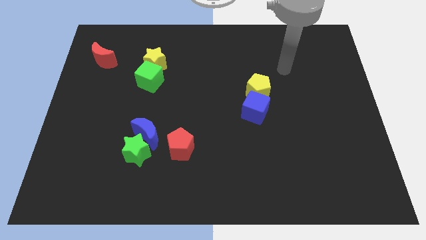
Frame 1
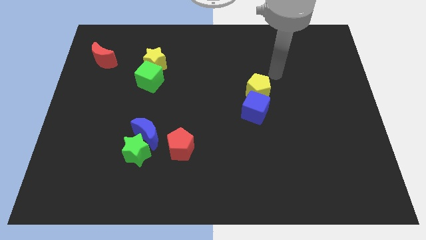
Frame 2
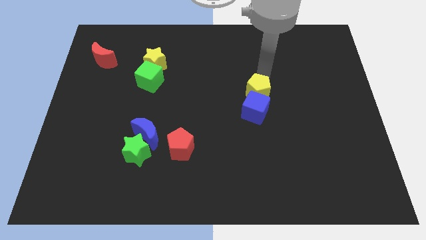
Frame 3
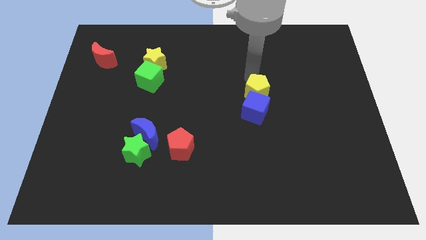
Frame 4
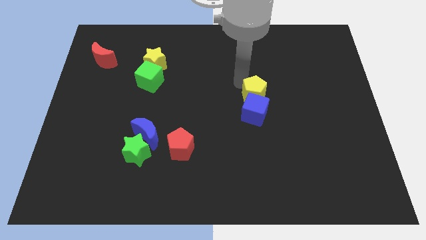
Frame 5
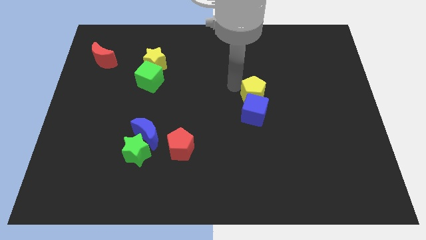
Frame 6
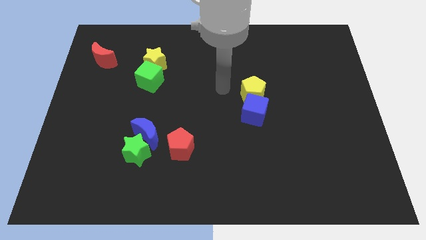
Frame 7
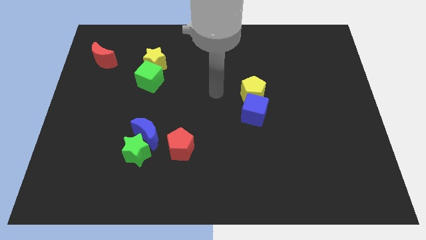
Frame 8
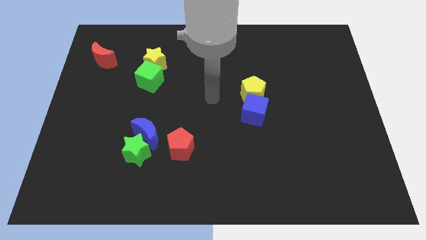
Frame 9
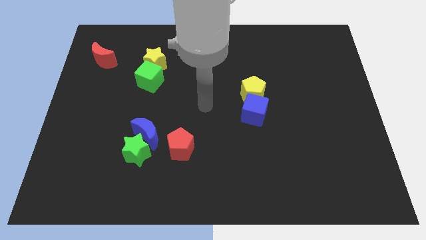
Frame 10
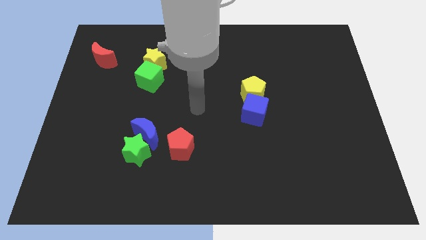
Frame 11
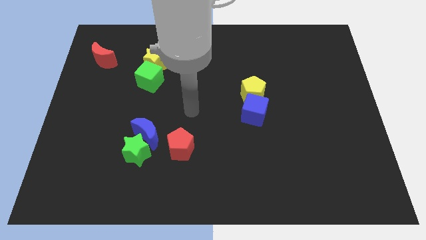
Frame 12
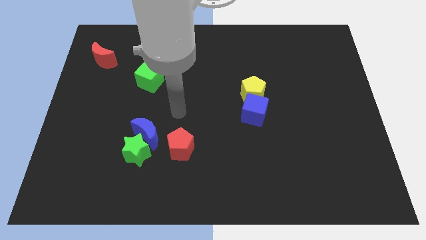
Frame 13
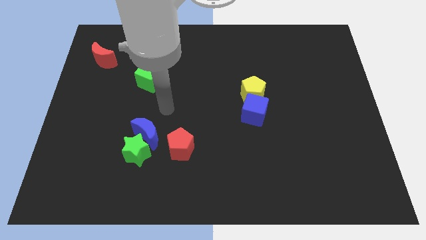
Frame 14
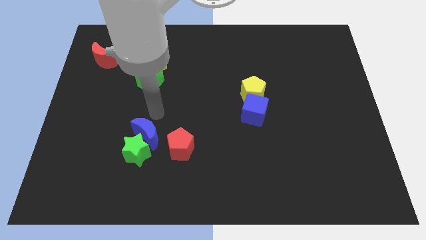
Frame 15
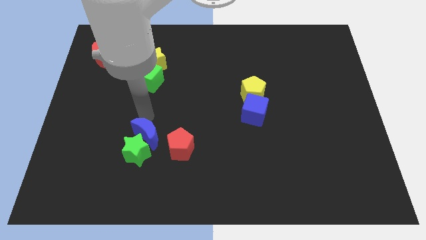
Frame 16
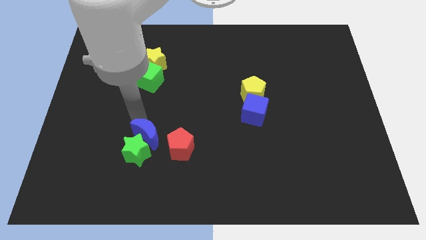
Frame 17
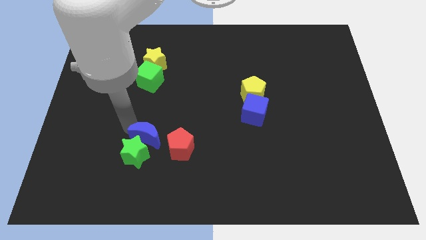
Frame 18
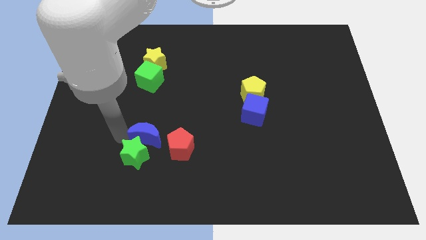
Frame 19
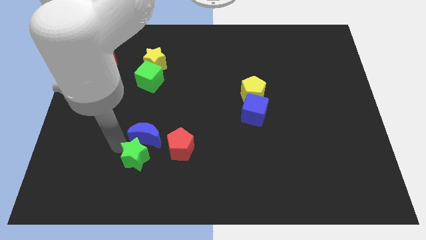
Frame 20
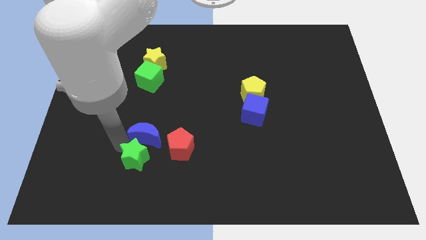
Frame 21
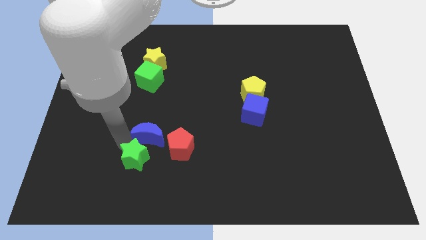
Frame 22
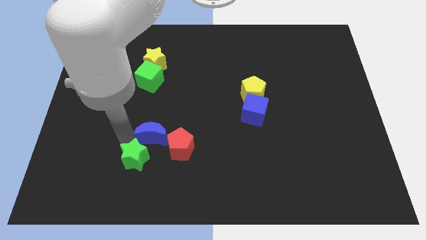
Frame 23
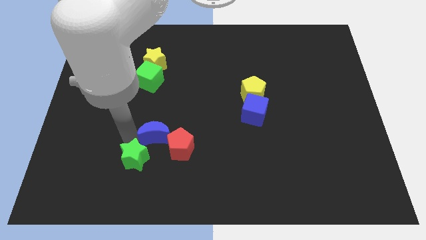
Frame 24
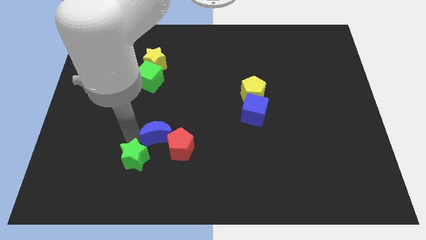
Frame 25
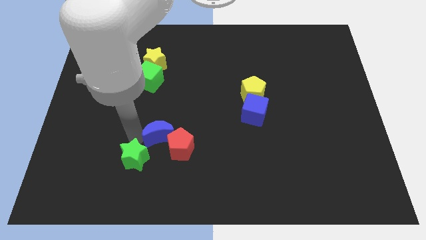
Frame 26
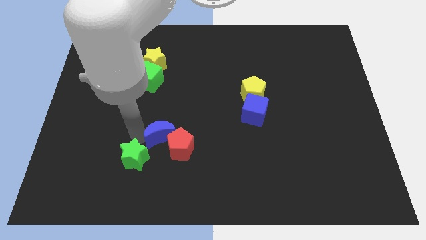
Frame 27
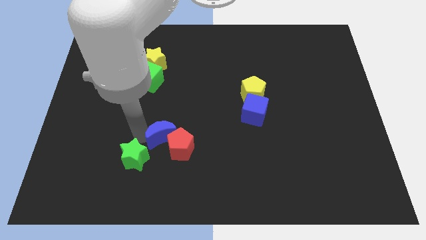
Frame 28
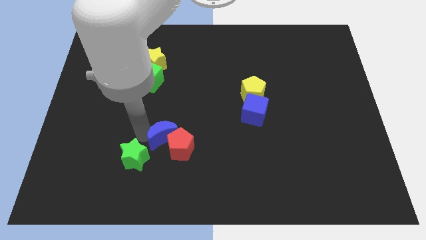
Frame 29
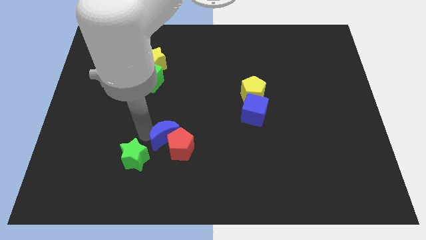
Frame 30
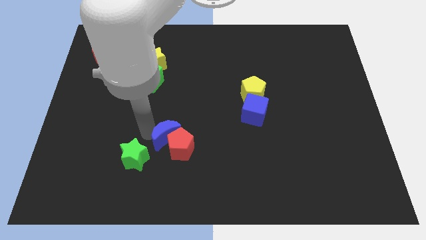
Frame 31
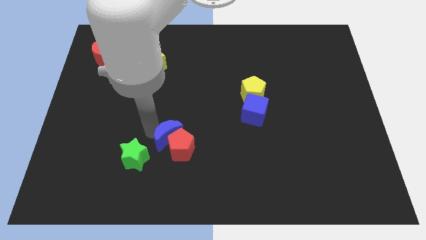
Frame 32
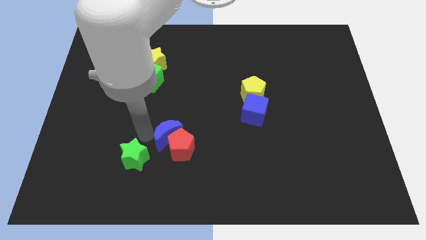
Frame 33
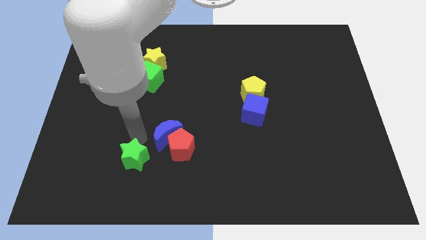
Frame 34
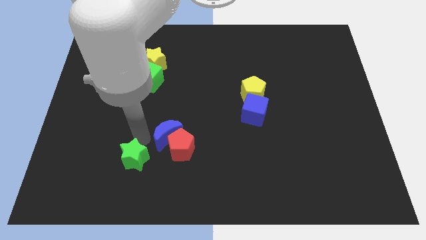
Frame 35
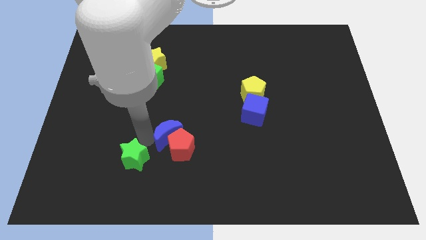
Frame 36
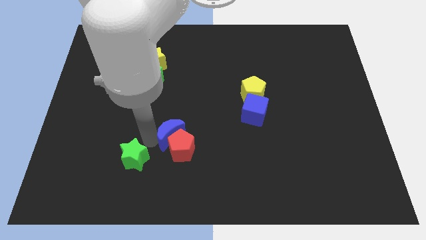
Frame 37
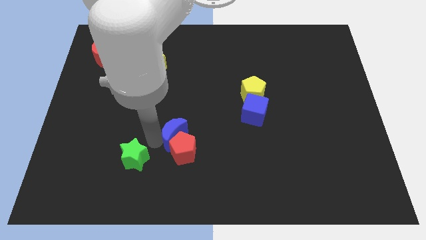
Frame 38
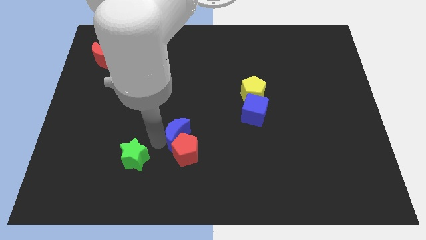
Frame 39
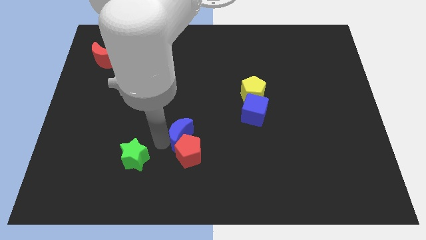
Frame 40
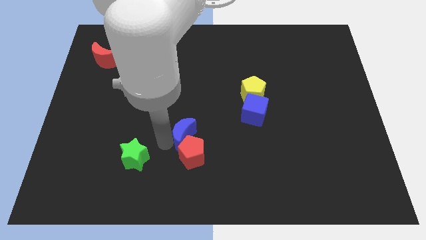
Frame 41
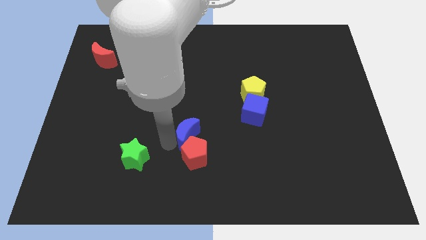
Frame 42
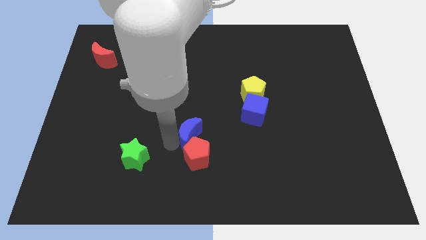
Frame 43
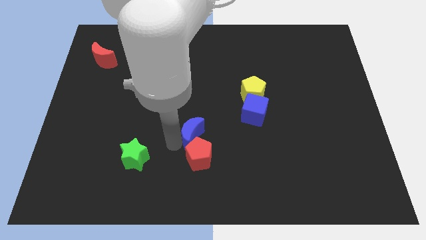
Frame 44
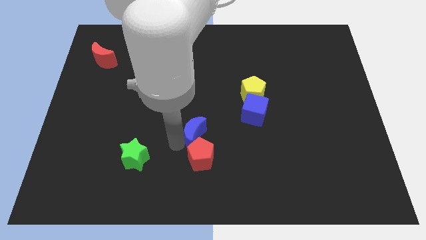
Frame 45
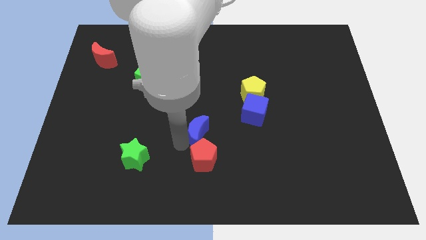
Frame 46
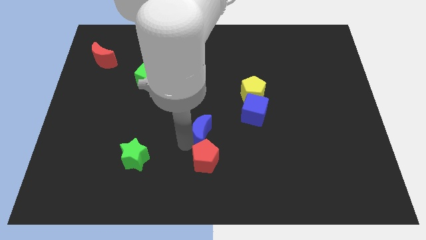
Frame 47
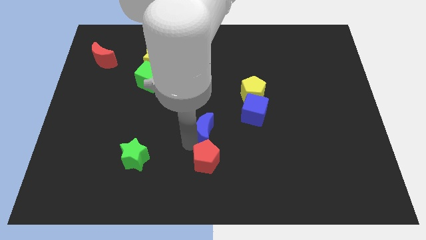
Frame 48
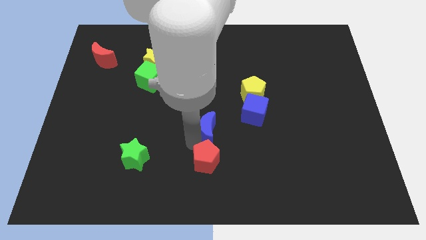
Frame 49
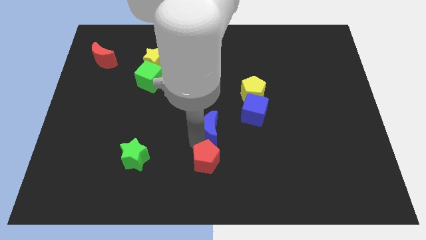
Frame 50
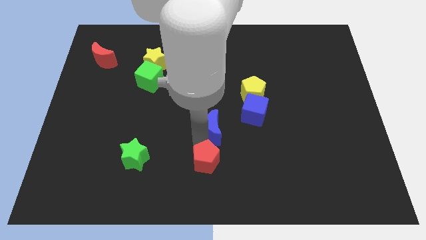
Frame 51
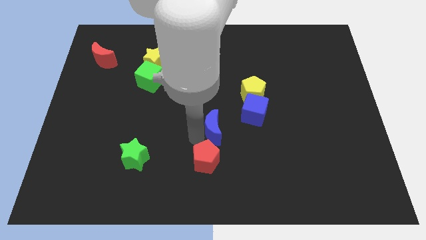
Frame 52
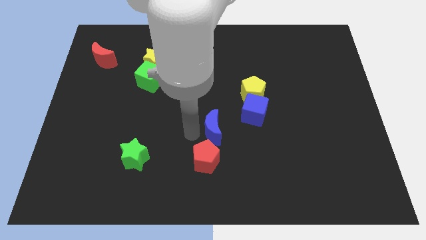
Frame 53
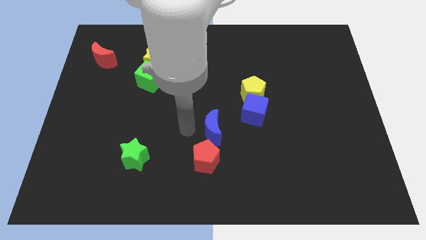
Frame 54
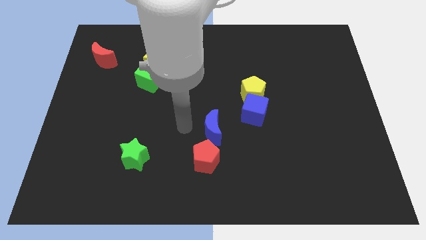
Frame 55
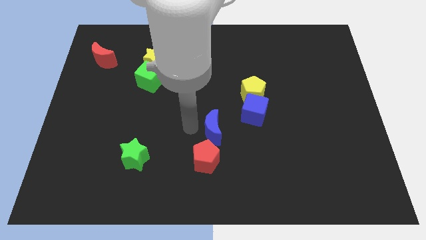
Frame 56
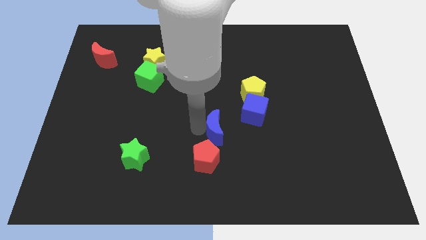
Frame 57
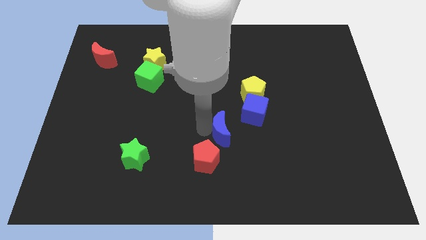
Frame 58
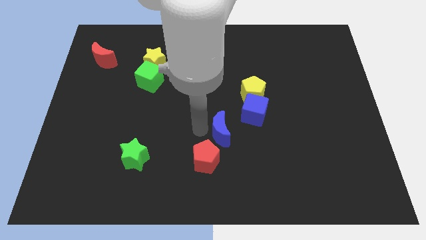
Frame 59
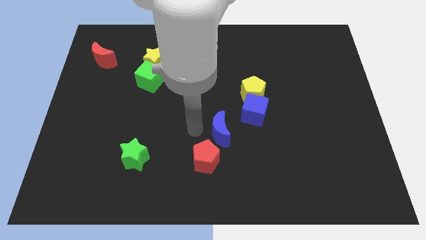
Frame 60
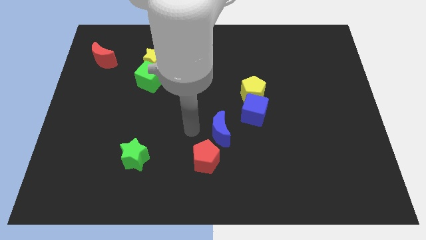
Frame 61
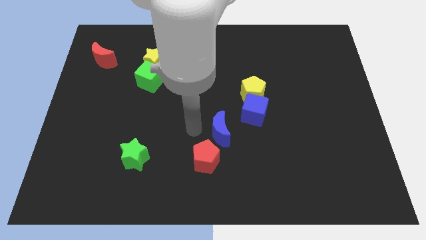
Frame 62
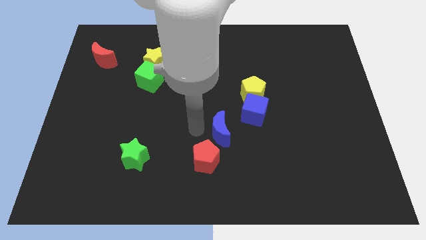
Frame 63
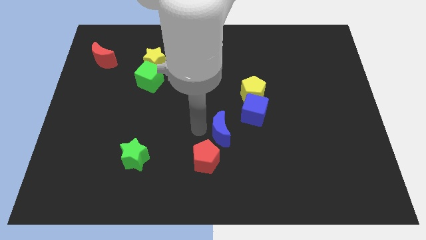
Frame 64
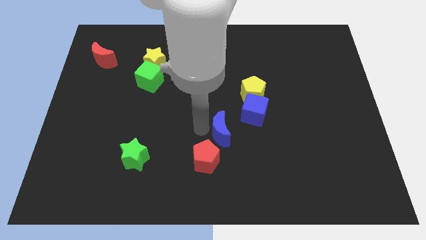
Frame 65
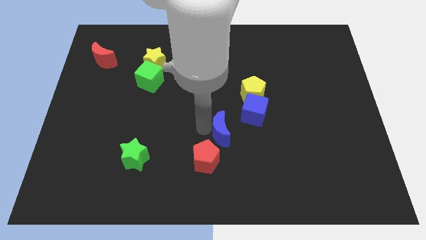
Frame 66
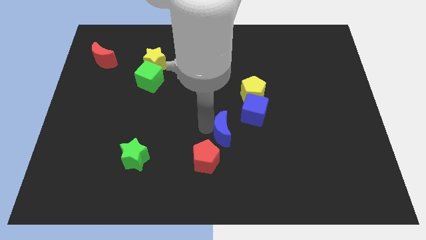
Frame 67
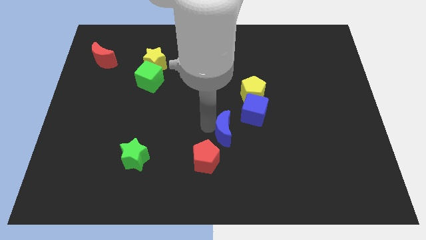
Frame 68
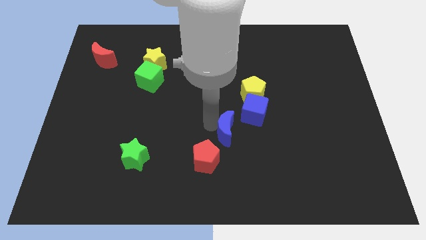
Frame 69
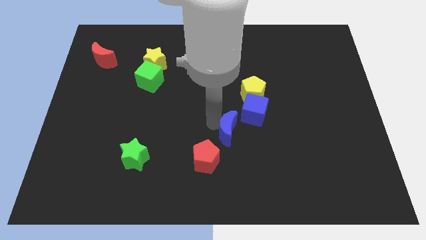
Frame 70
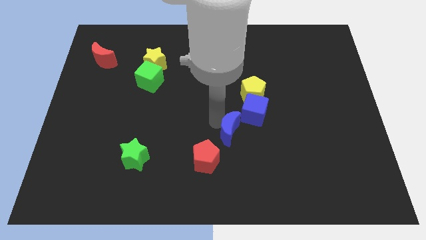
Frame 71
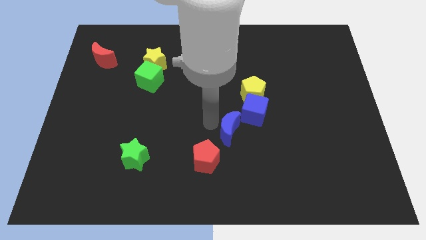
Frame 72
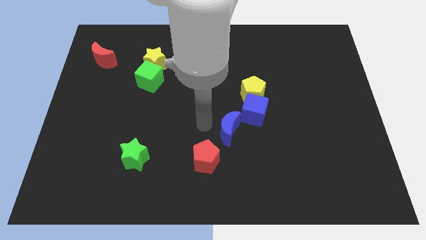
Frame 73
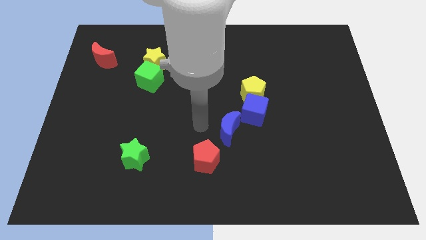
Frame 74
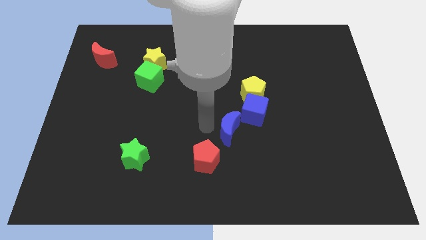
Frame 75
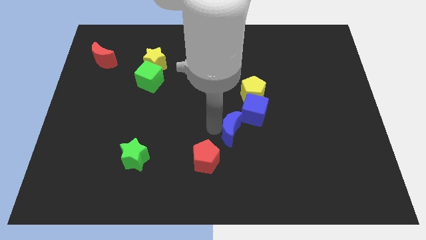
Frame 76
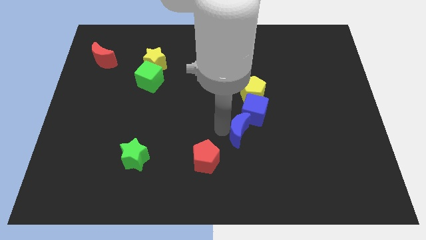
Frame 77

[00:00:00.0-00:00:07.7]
move the blue moon to the right

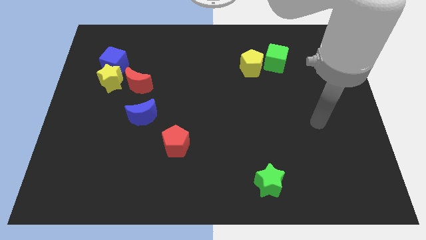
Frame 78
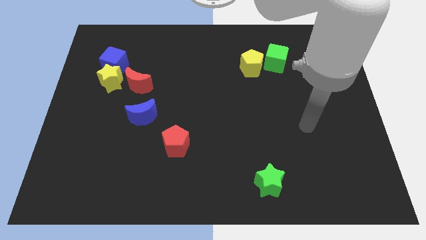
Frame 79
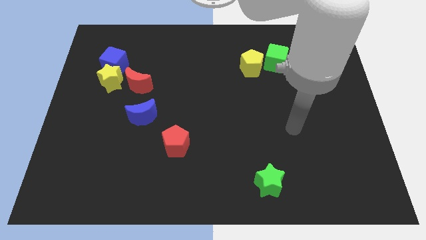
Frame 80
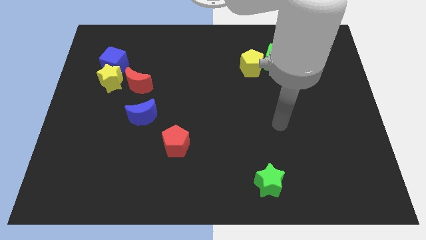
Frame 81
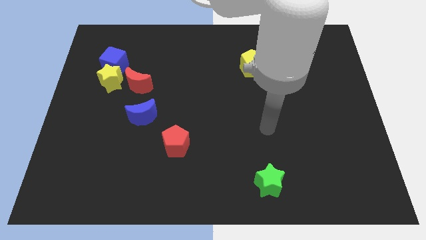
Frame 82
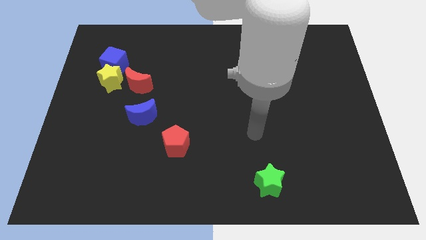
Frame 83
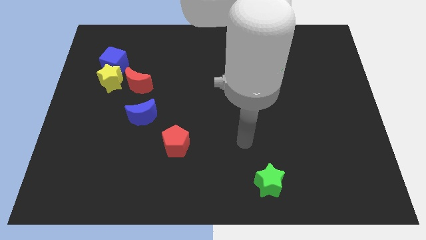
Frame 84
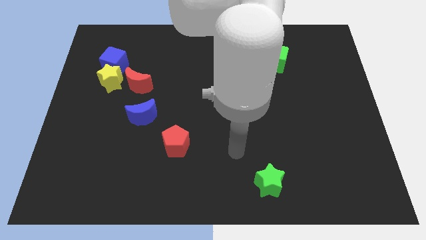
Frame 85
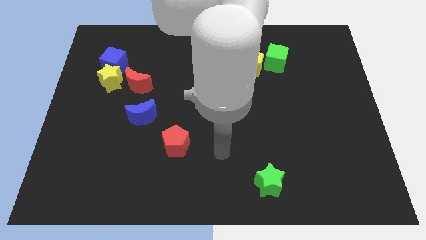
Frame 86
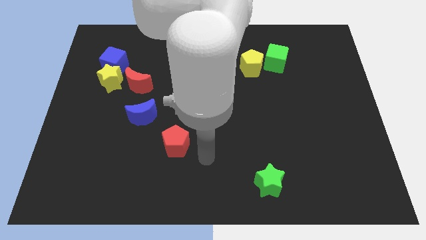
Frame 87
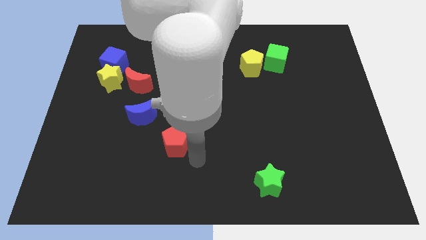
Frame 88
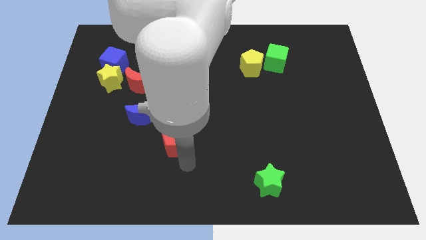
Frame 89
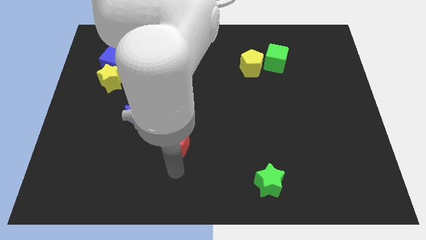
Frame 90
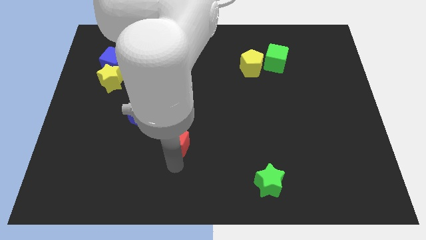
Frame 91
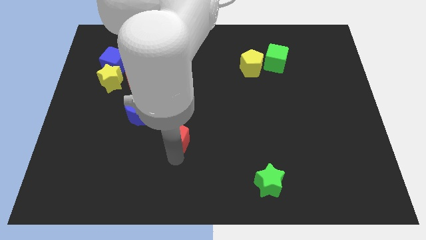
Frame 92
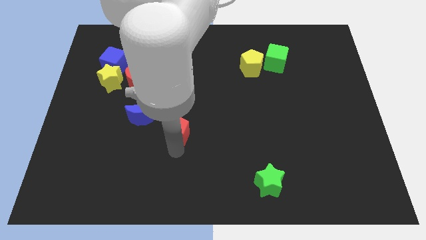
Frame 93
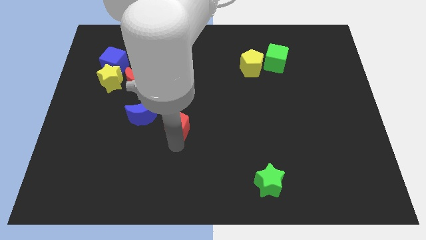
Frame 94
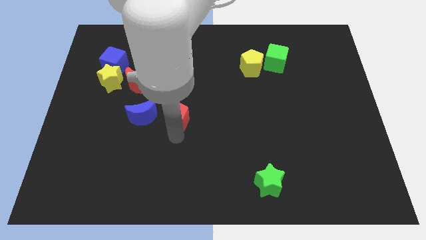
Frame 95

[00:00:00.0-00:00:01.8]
slightly push the red pentagon upwards
